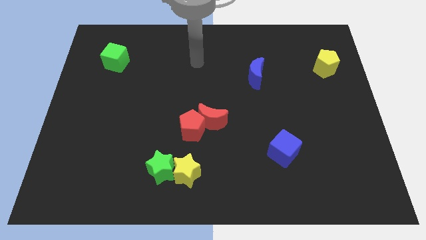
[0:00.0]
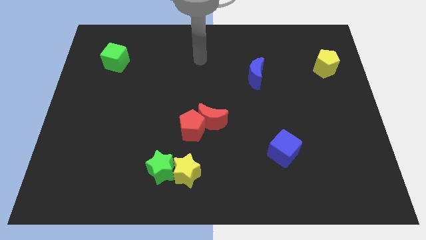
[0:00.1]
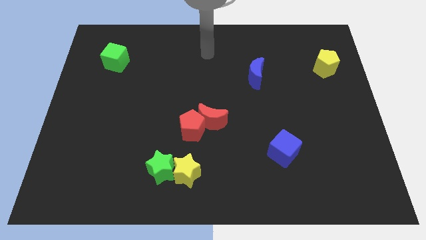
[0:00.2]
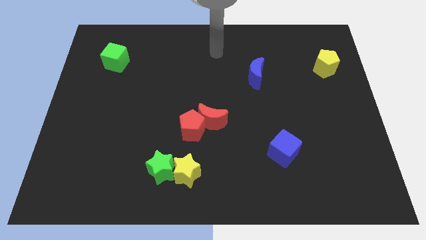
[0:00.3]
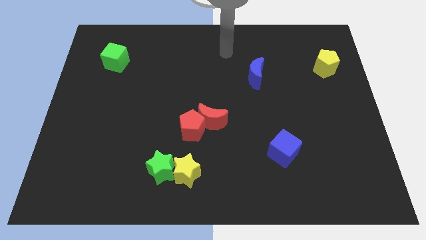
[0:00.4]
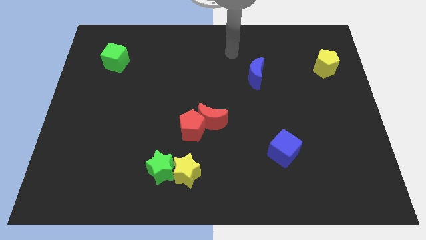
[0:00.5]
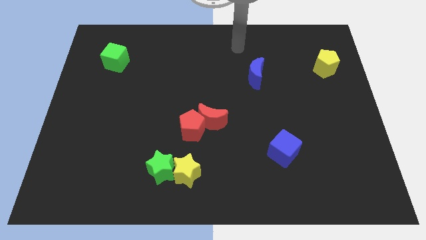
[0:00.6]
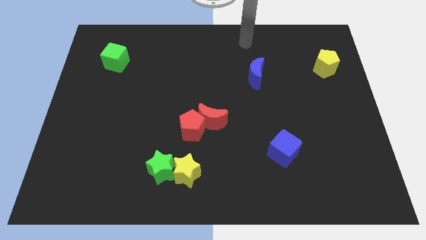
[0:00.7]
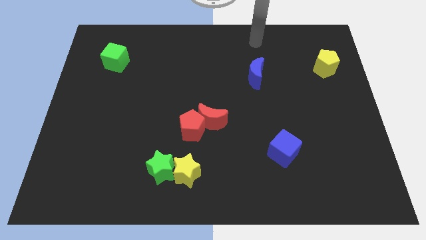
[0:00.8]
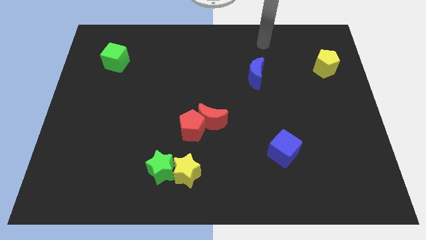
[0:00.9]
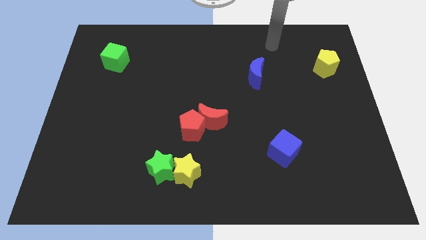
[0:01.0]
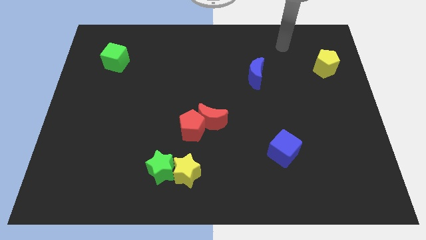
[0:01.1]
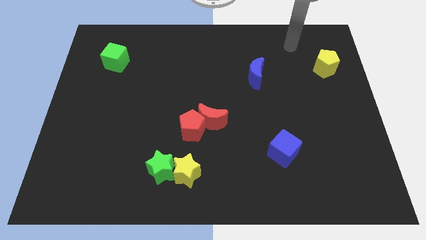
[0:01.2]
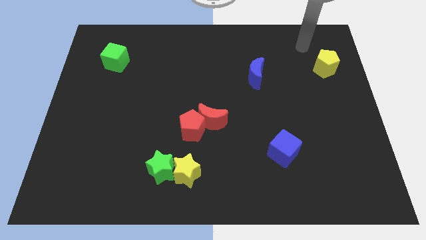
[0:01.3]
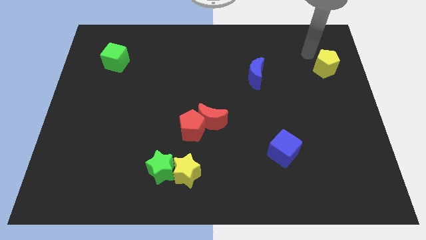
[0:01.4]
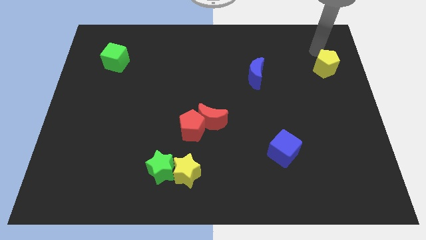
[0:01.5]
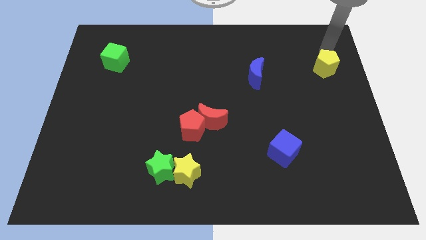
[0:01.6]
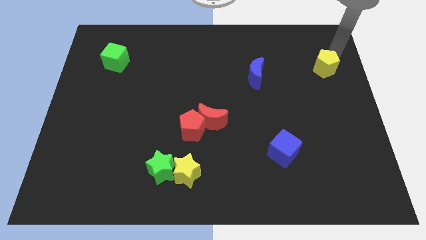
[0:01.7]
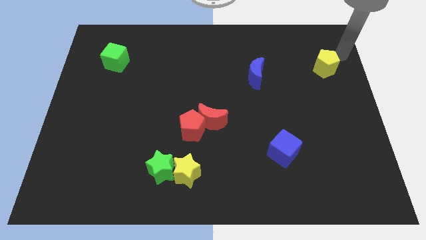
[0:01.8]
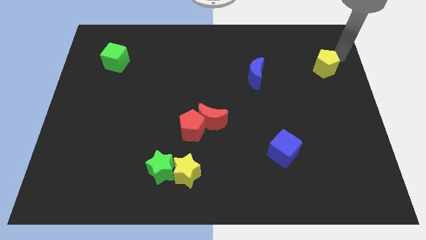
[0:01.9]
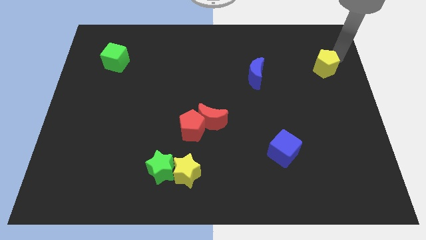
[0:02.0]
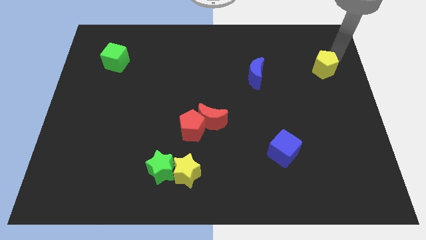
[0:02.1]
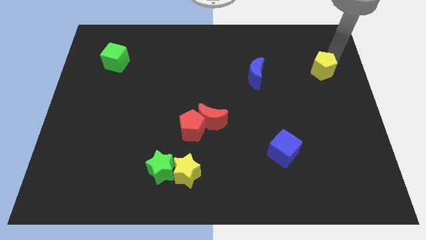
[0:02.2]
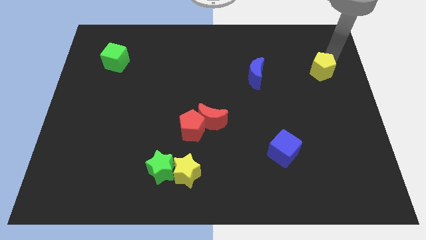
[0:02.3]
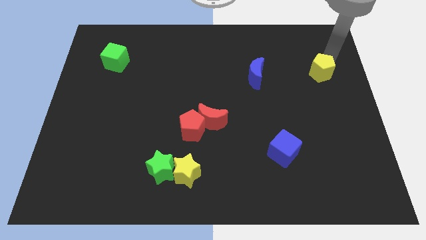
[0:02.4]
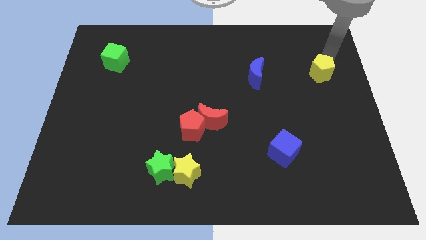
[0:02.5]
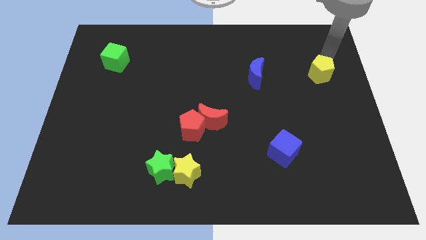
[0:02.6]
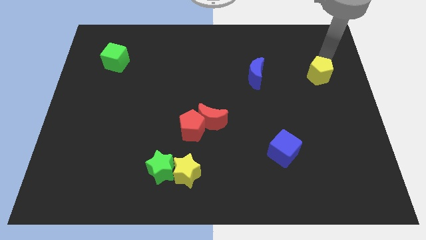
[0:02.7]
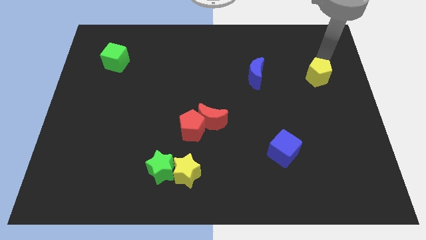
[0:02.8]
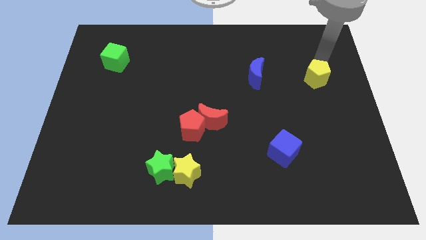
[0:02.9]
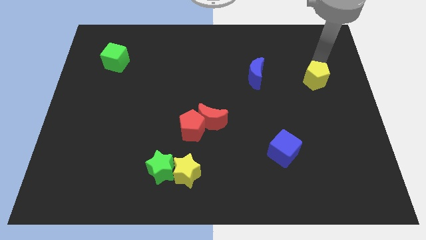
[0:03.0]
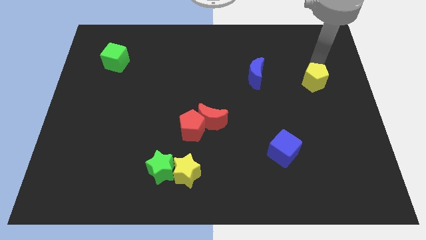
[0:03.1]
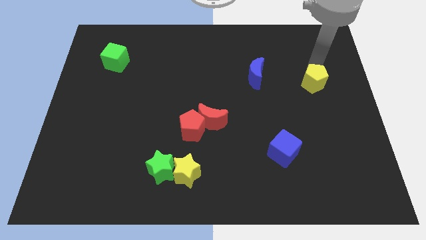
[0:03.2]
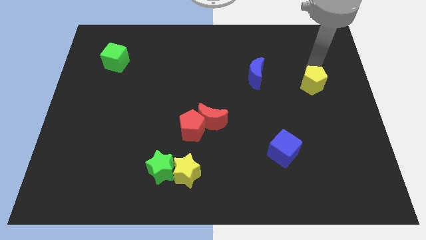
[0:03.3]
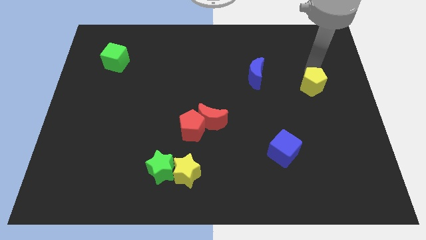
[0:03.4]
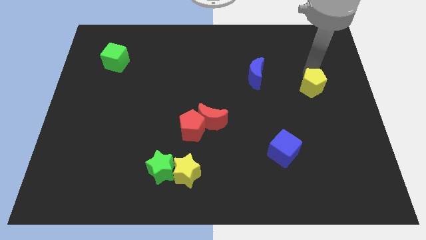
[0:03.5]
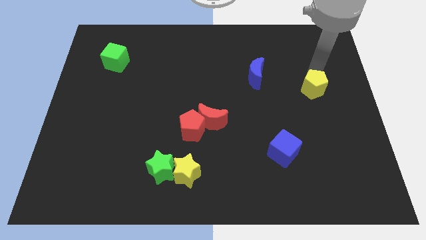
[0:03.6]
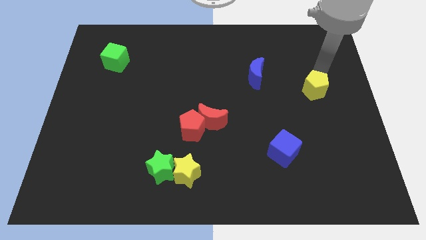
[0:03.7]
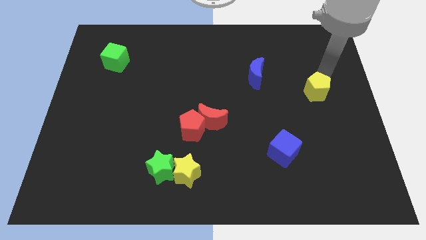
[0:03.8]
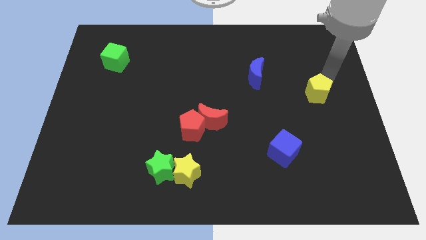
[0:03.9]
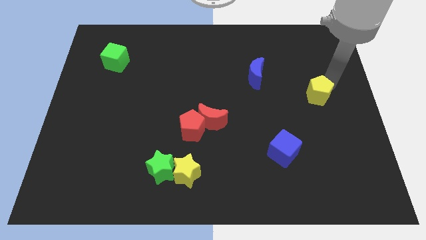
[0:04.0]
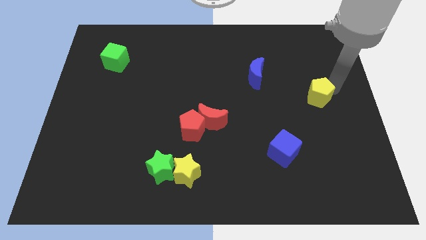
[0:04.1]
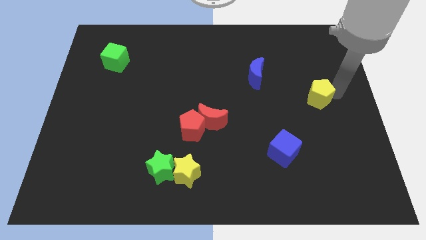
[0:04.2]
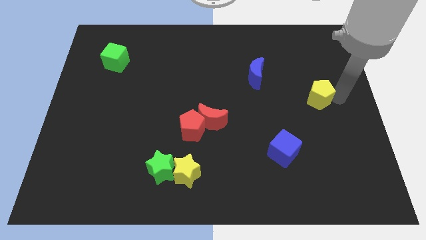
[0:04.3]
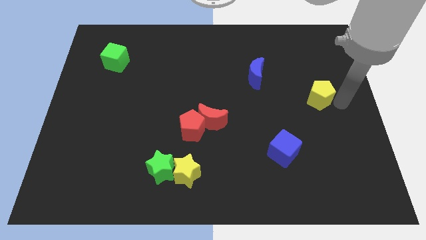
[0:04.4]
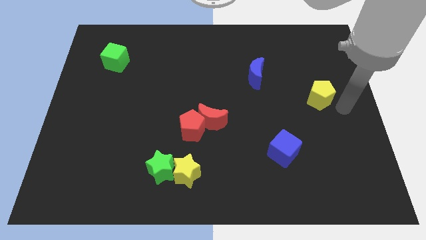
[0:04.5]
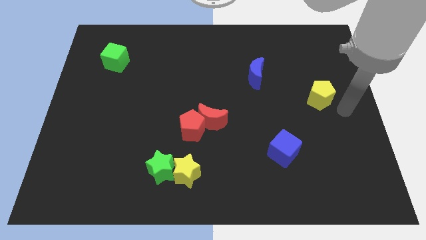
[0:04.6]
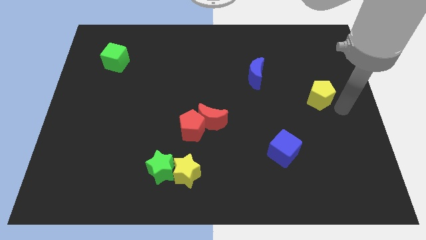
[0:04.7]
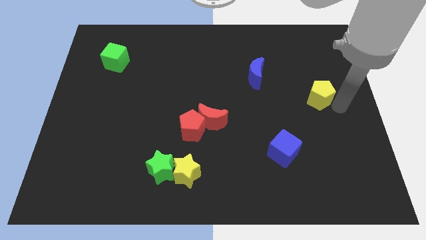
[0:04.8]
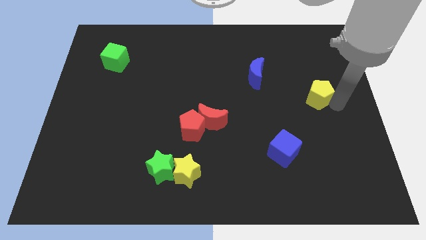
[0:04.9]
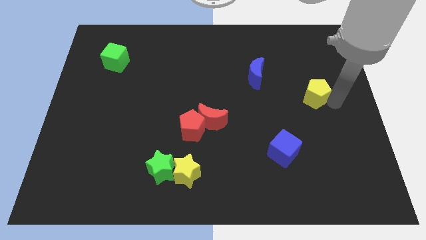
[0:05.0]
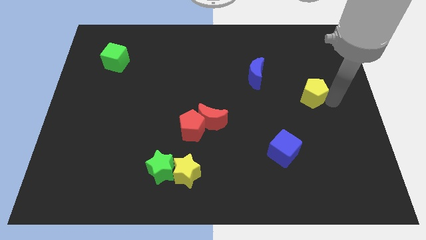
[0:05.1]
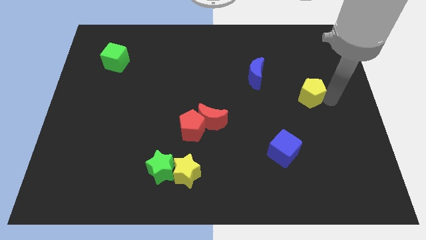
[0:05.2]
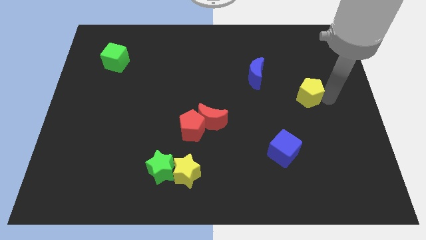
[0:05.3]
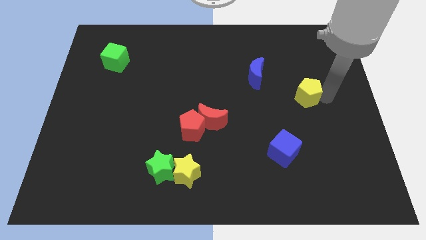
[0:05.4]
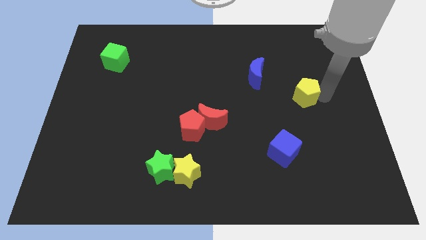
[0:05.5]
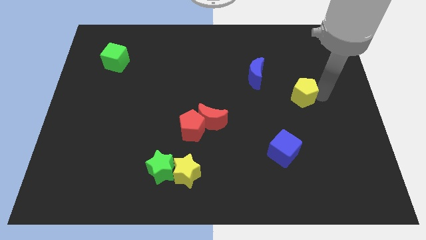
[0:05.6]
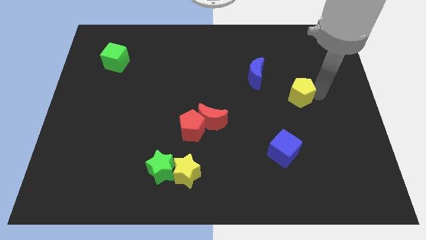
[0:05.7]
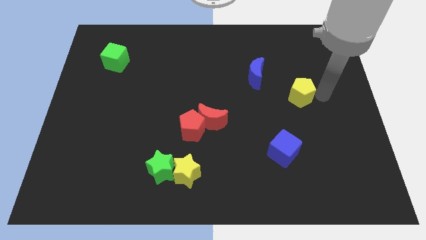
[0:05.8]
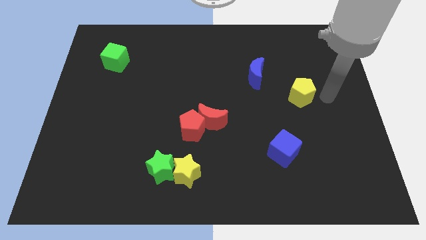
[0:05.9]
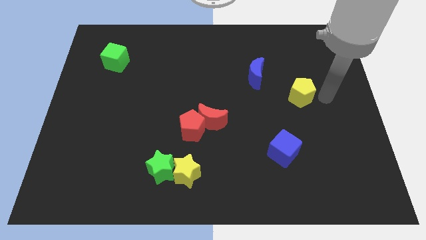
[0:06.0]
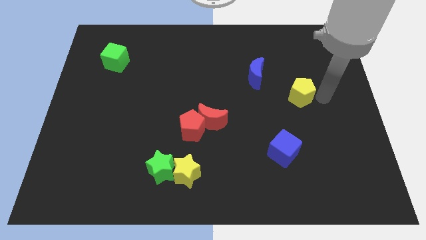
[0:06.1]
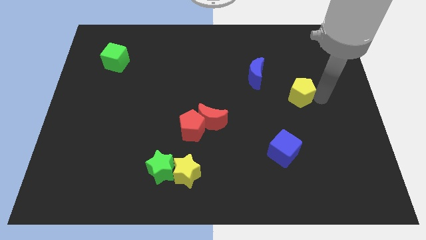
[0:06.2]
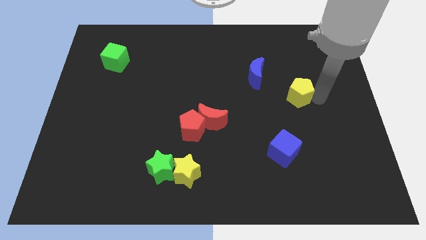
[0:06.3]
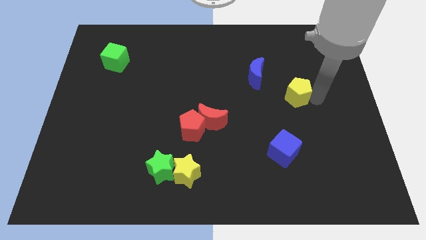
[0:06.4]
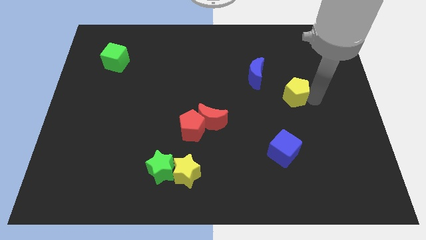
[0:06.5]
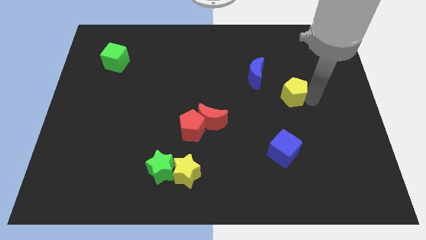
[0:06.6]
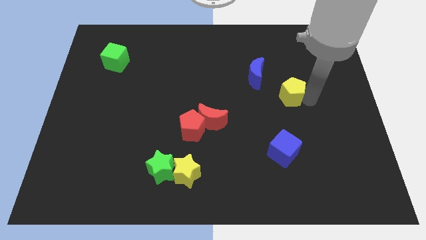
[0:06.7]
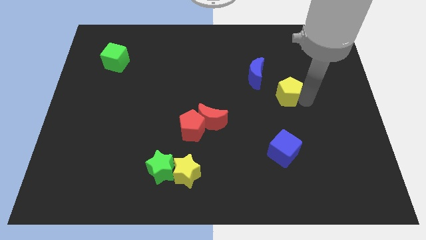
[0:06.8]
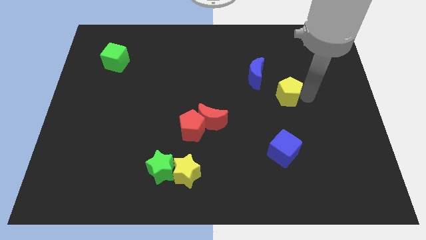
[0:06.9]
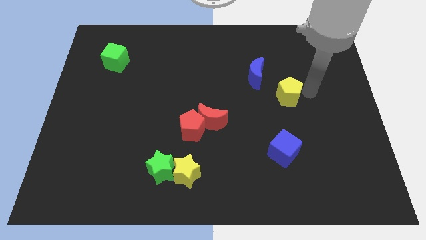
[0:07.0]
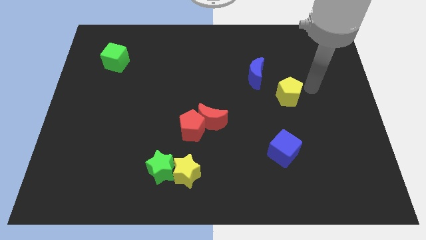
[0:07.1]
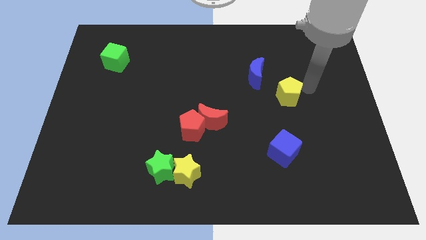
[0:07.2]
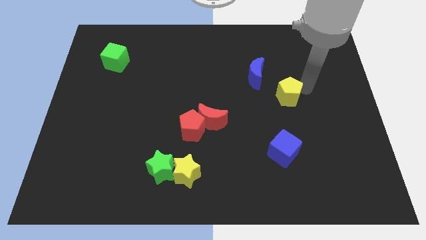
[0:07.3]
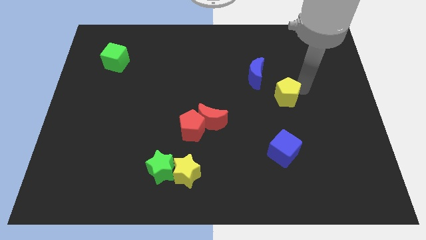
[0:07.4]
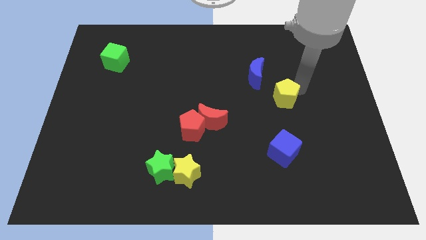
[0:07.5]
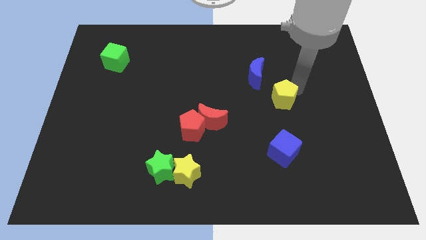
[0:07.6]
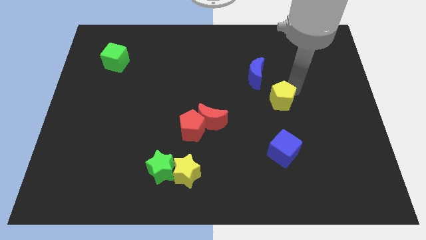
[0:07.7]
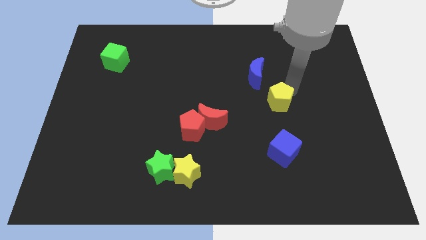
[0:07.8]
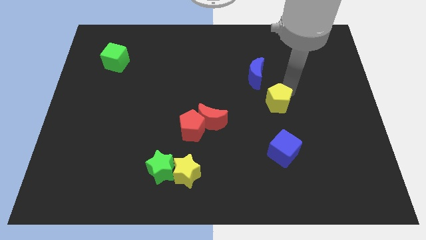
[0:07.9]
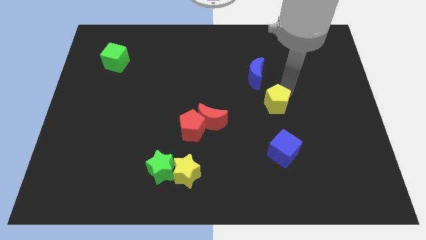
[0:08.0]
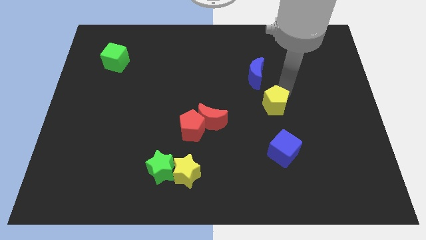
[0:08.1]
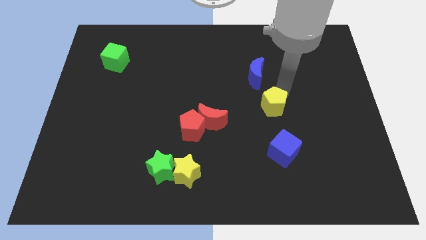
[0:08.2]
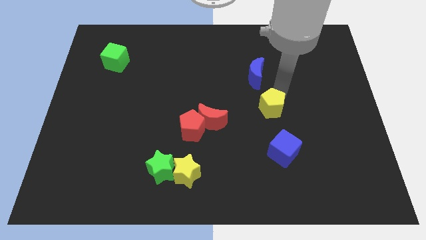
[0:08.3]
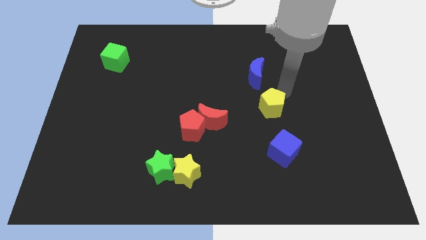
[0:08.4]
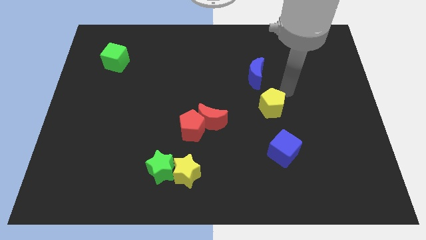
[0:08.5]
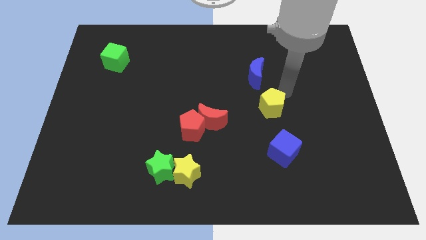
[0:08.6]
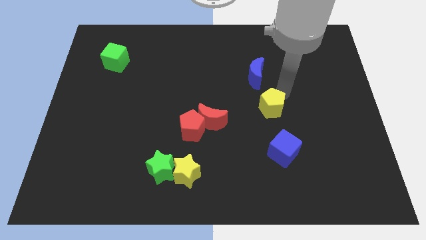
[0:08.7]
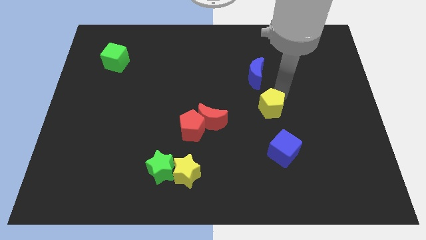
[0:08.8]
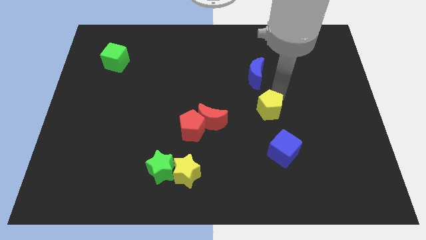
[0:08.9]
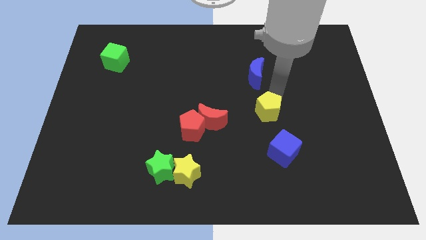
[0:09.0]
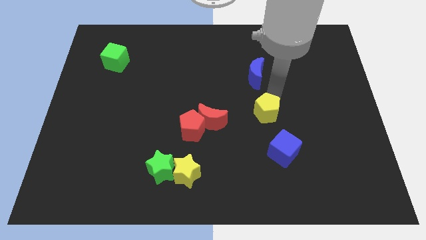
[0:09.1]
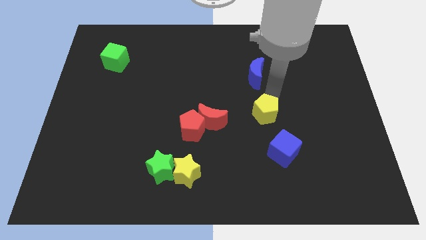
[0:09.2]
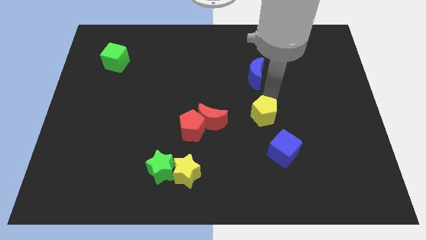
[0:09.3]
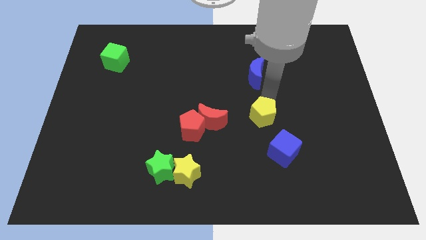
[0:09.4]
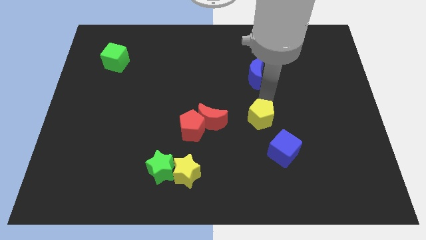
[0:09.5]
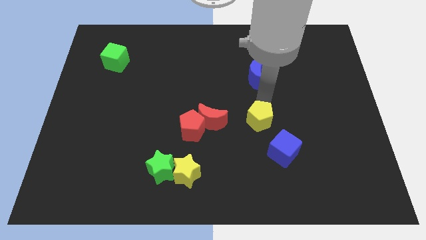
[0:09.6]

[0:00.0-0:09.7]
put the yellow pentagon just right of the red pentagon
